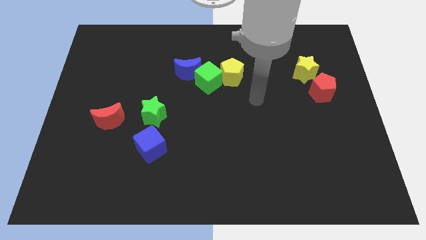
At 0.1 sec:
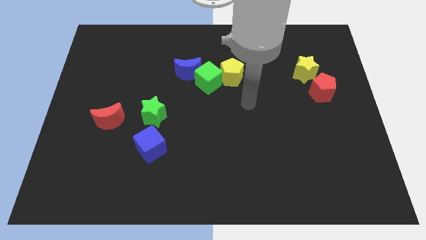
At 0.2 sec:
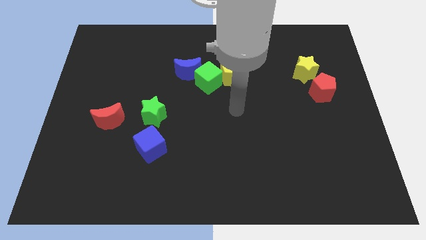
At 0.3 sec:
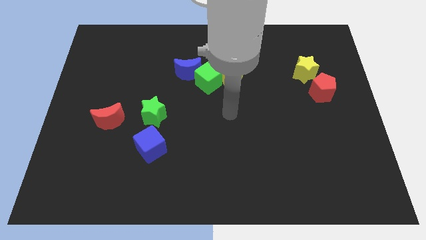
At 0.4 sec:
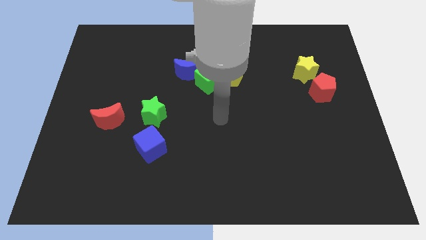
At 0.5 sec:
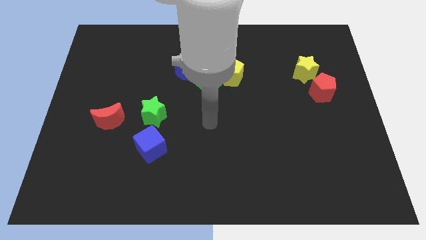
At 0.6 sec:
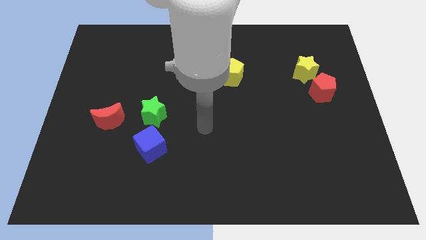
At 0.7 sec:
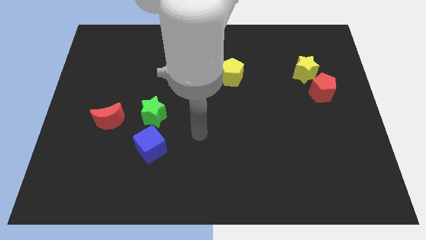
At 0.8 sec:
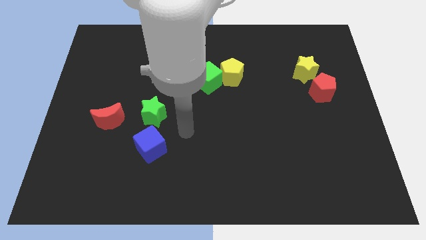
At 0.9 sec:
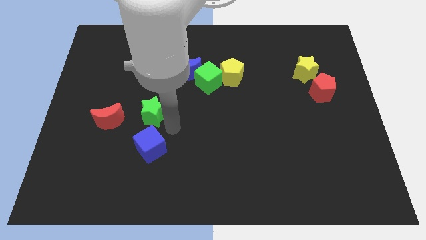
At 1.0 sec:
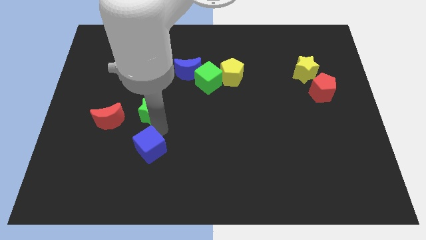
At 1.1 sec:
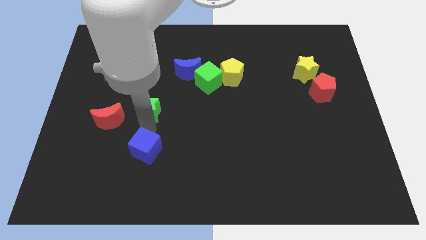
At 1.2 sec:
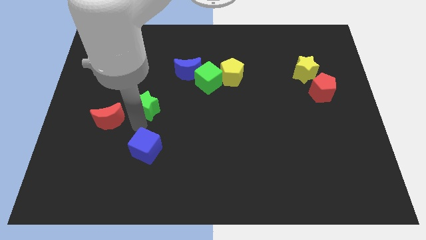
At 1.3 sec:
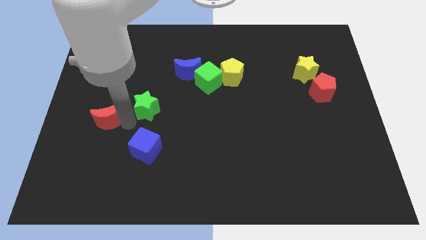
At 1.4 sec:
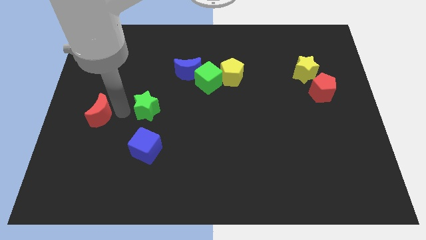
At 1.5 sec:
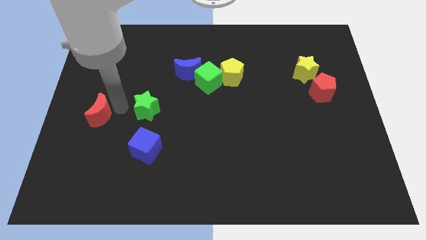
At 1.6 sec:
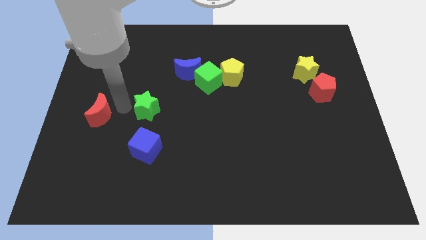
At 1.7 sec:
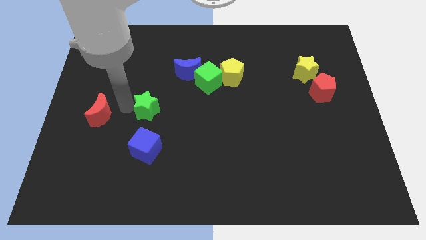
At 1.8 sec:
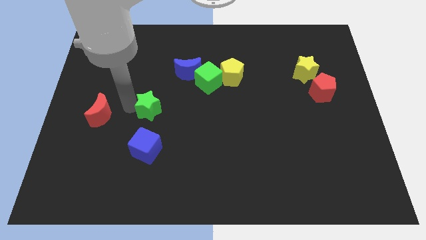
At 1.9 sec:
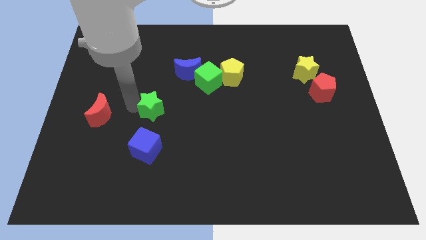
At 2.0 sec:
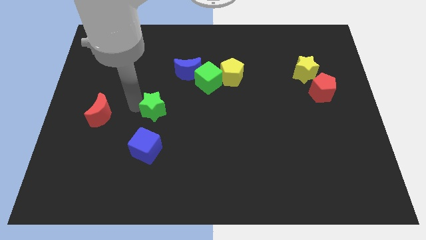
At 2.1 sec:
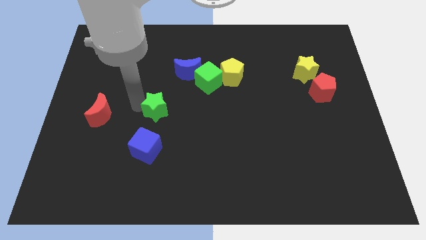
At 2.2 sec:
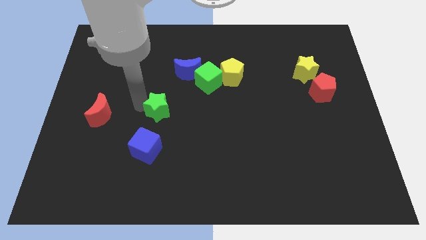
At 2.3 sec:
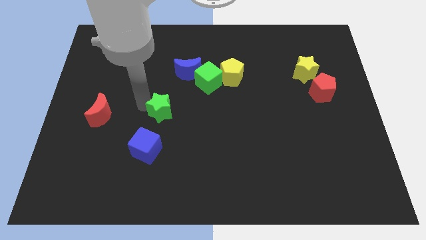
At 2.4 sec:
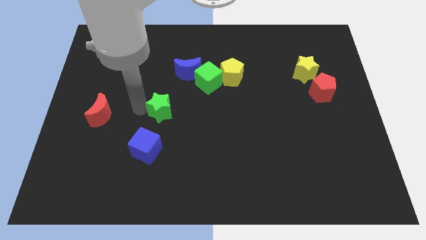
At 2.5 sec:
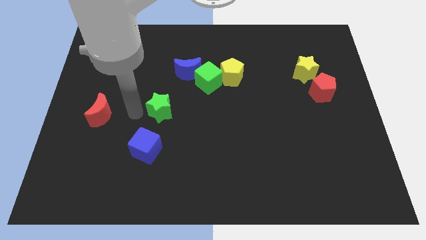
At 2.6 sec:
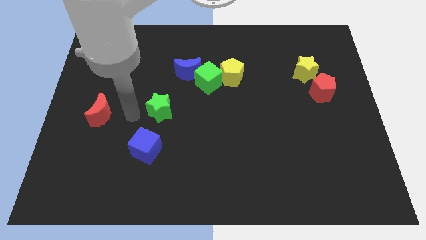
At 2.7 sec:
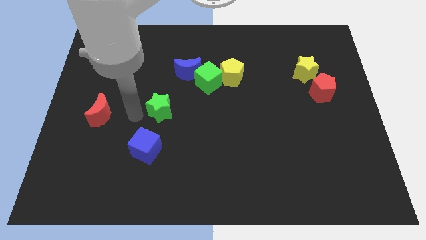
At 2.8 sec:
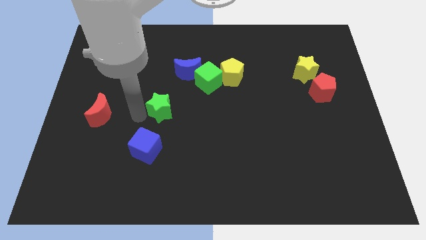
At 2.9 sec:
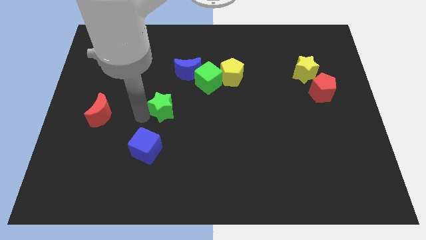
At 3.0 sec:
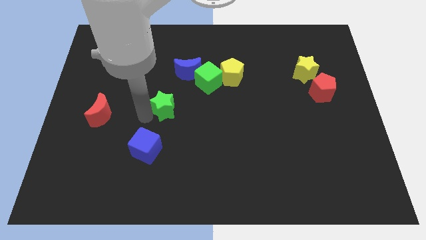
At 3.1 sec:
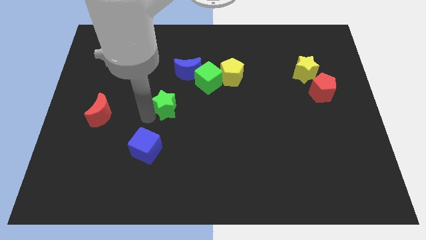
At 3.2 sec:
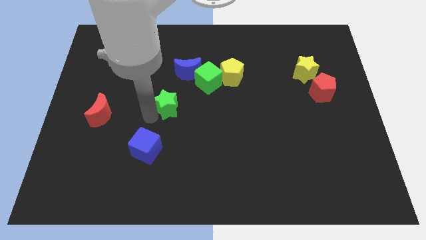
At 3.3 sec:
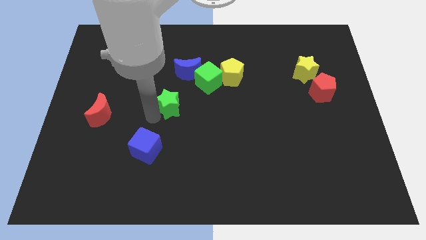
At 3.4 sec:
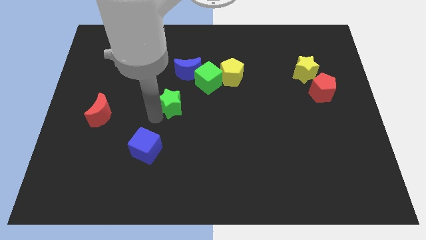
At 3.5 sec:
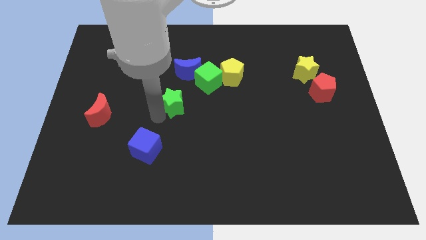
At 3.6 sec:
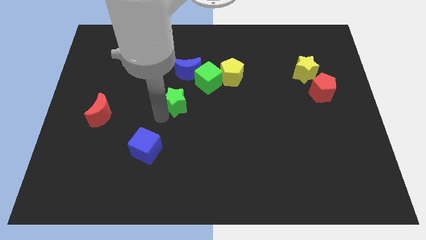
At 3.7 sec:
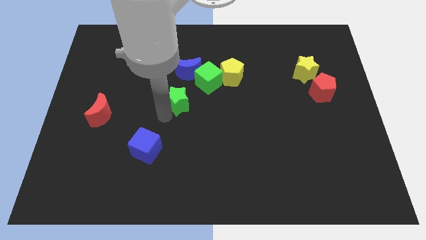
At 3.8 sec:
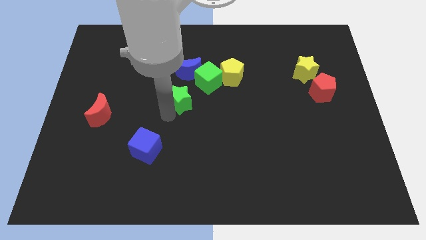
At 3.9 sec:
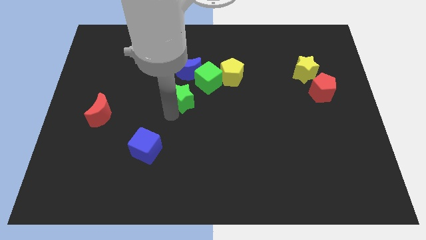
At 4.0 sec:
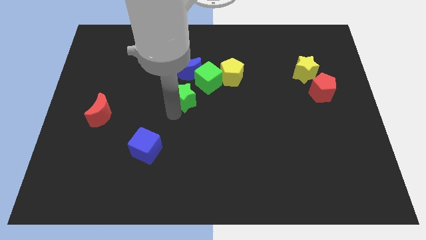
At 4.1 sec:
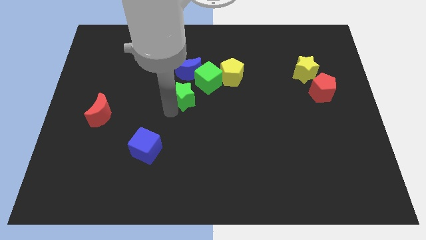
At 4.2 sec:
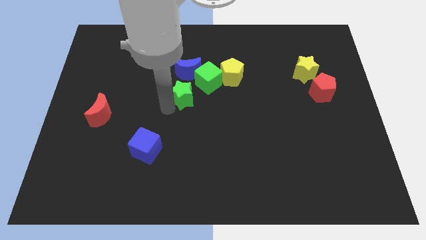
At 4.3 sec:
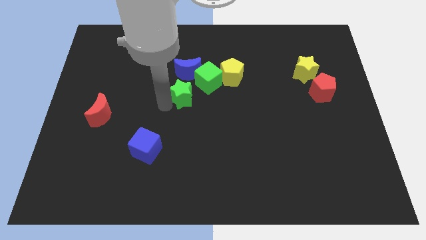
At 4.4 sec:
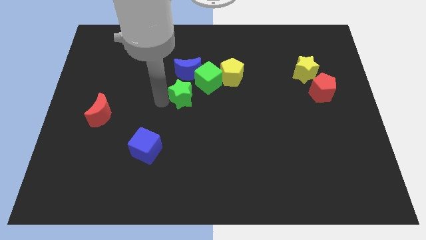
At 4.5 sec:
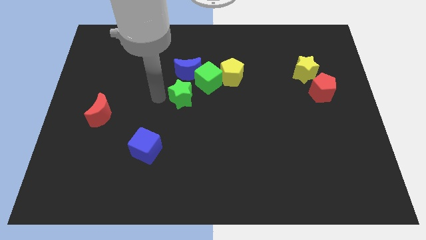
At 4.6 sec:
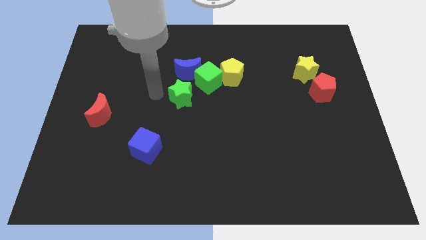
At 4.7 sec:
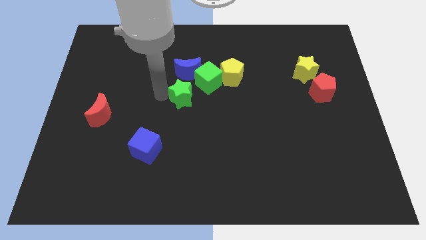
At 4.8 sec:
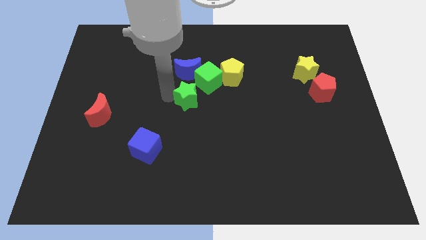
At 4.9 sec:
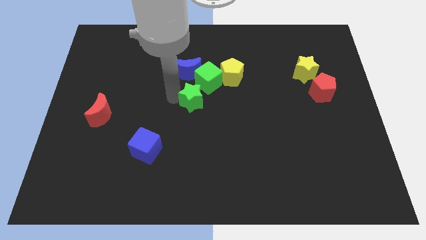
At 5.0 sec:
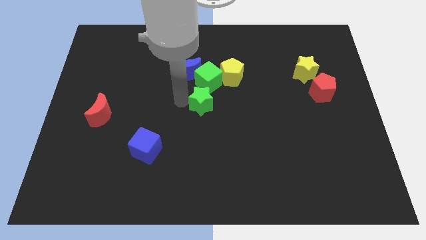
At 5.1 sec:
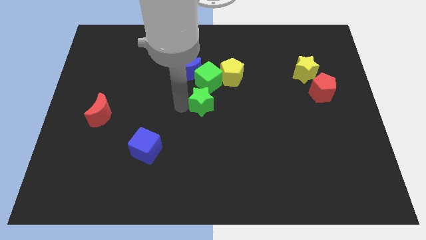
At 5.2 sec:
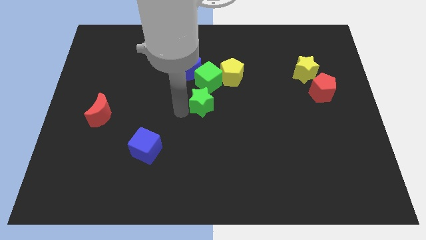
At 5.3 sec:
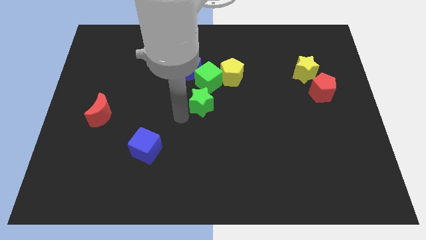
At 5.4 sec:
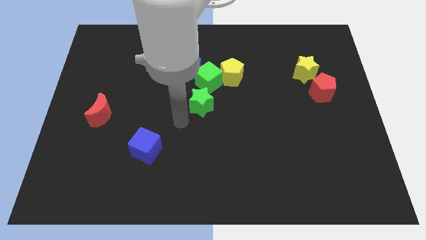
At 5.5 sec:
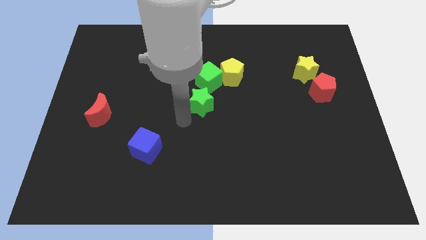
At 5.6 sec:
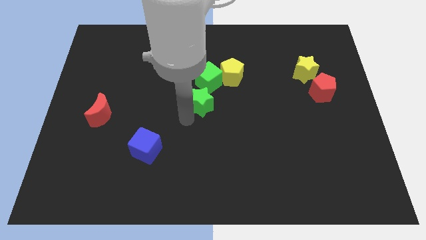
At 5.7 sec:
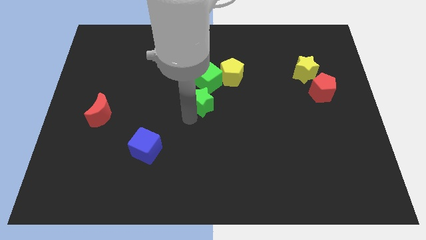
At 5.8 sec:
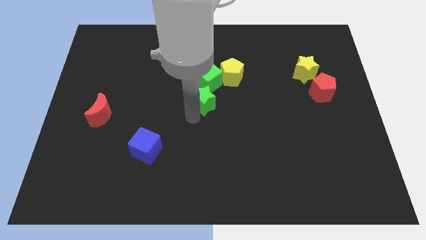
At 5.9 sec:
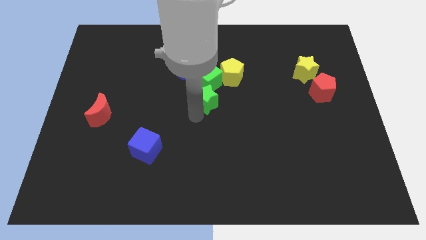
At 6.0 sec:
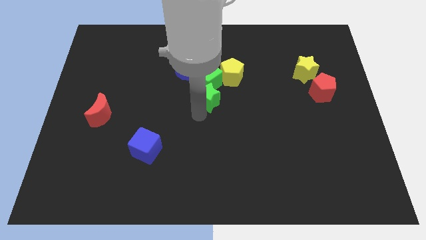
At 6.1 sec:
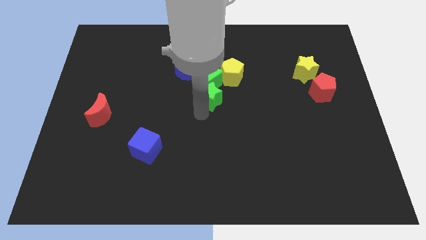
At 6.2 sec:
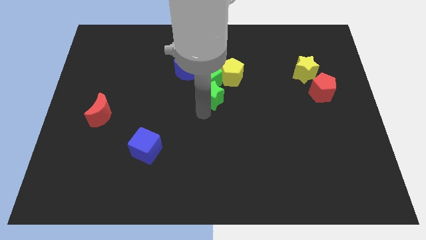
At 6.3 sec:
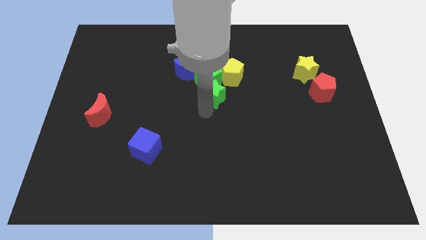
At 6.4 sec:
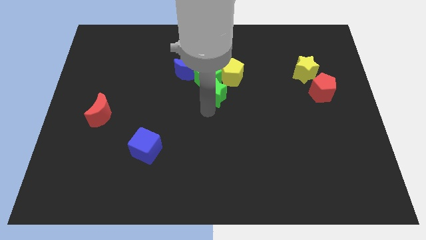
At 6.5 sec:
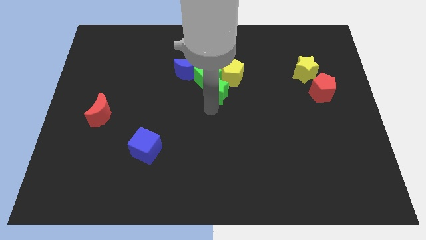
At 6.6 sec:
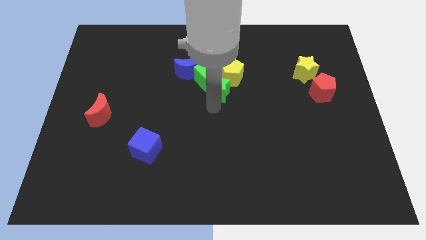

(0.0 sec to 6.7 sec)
slide the green star next to the yellow pentagon

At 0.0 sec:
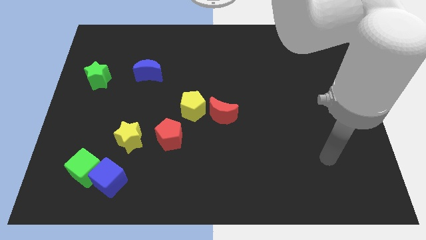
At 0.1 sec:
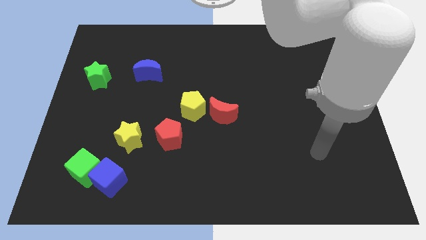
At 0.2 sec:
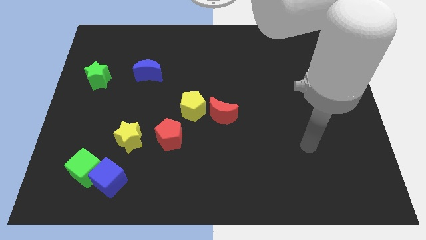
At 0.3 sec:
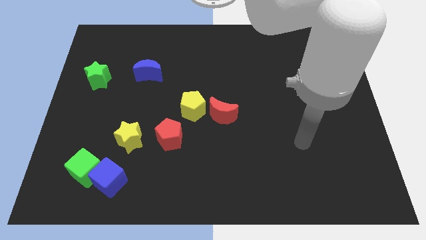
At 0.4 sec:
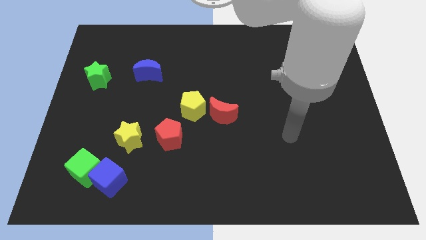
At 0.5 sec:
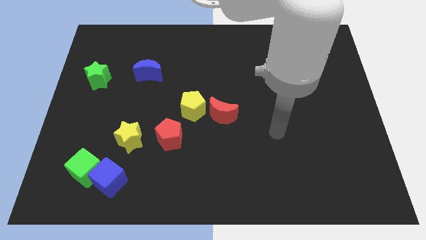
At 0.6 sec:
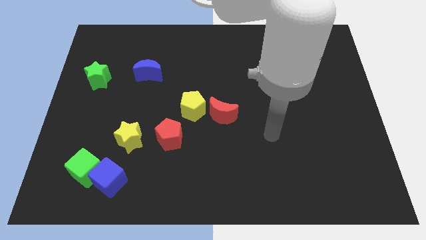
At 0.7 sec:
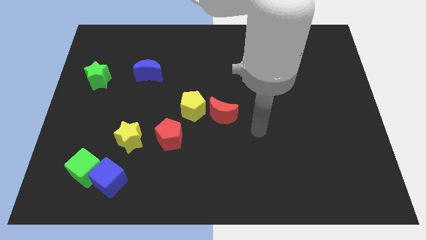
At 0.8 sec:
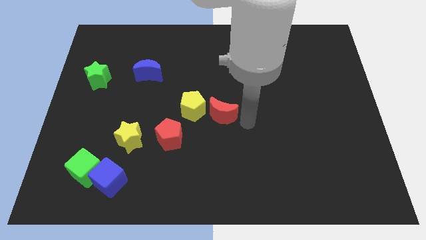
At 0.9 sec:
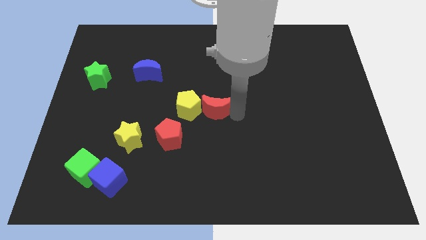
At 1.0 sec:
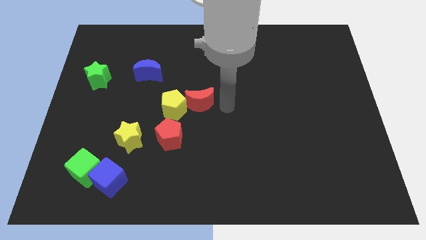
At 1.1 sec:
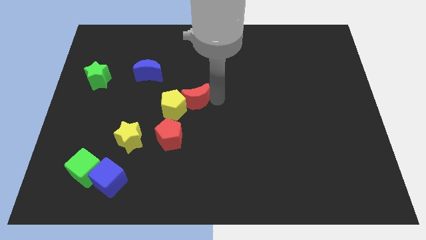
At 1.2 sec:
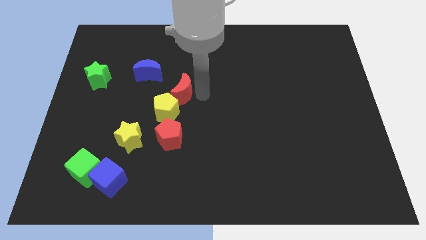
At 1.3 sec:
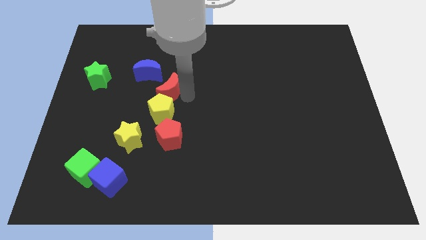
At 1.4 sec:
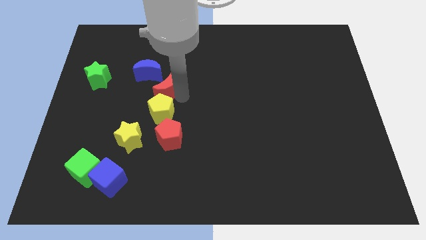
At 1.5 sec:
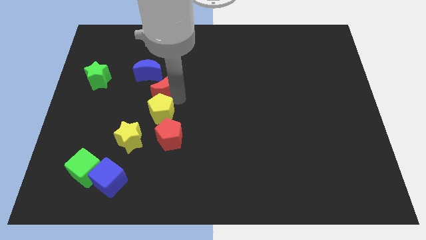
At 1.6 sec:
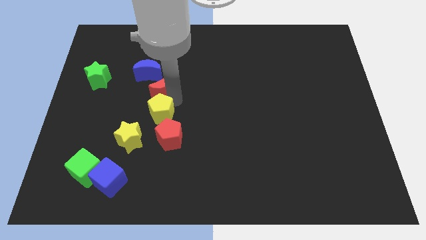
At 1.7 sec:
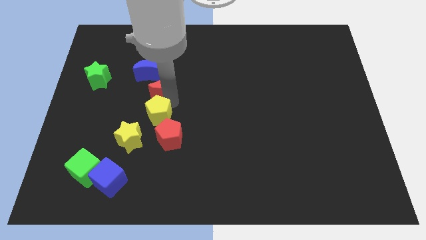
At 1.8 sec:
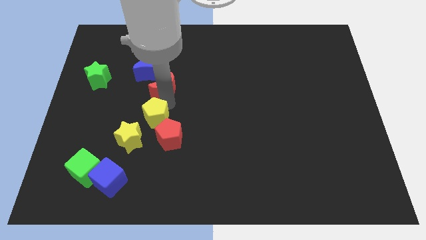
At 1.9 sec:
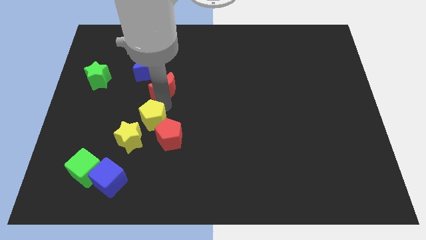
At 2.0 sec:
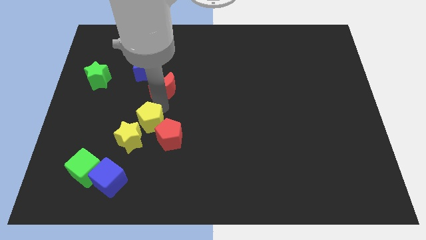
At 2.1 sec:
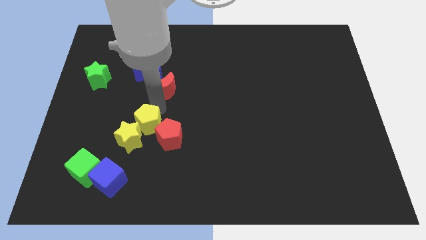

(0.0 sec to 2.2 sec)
put the yellow pentagon close to the yellow star
